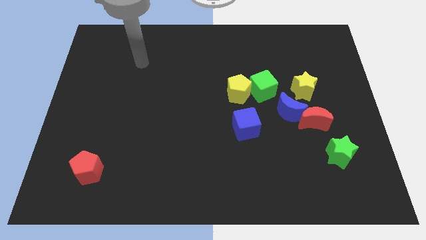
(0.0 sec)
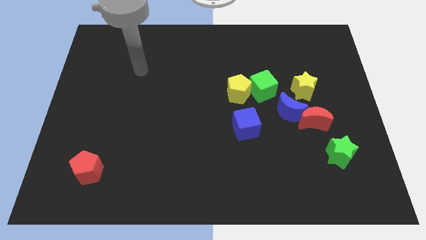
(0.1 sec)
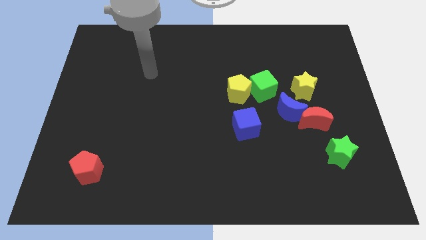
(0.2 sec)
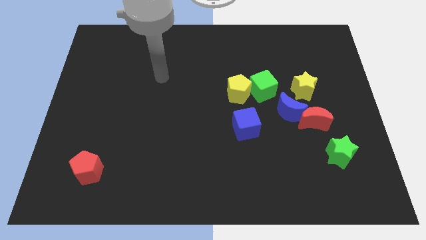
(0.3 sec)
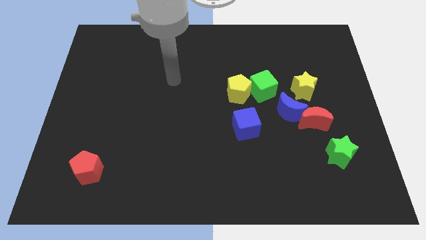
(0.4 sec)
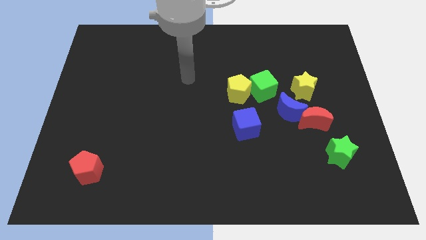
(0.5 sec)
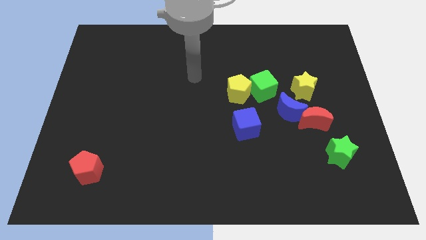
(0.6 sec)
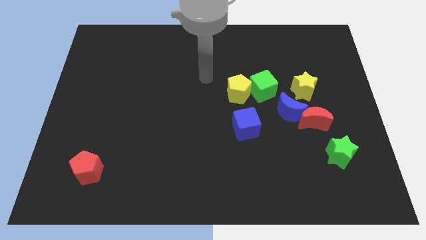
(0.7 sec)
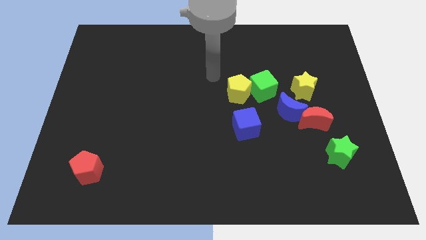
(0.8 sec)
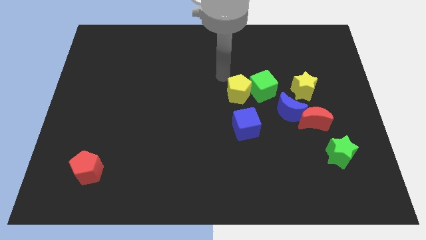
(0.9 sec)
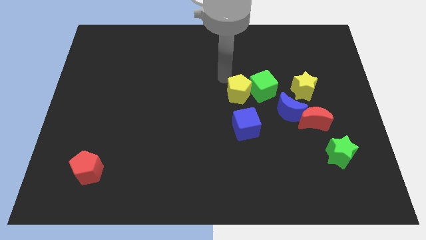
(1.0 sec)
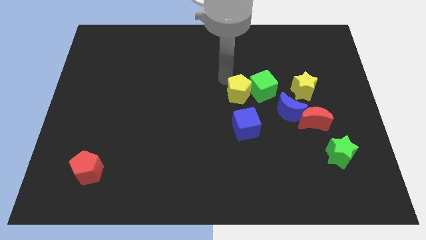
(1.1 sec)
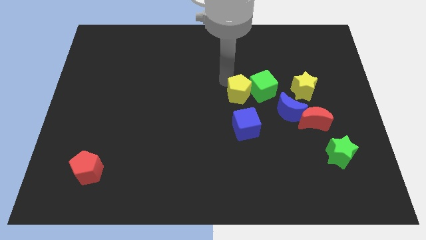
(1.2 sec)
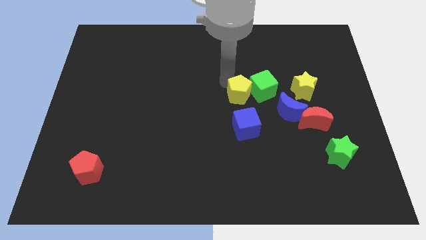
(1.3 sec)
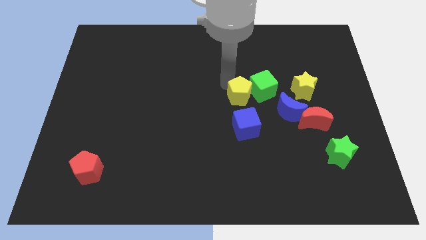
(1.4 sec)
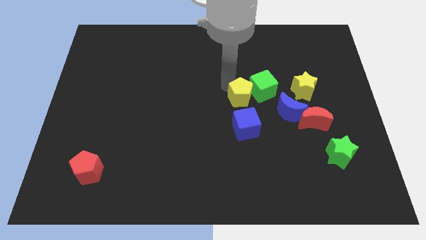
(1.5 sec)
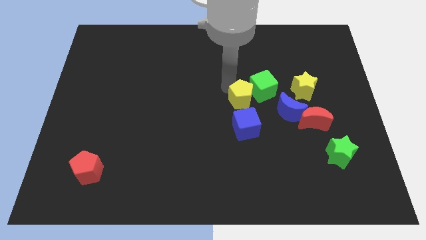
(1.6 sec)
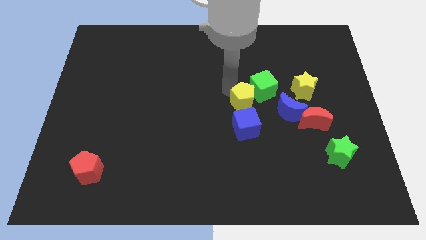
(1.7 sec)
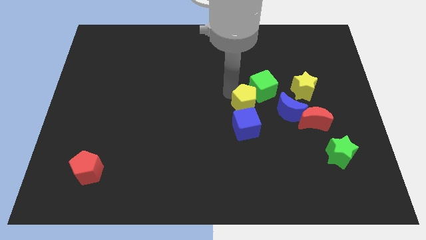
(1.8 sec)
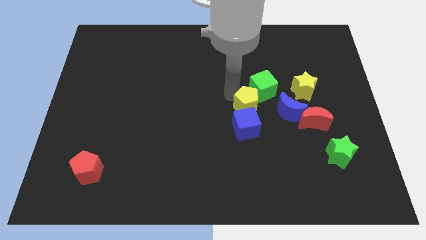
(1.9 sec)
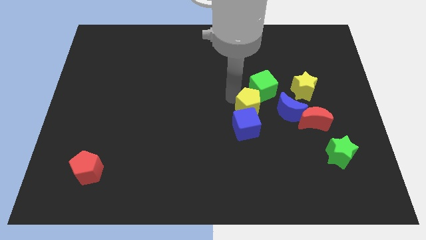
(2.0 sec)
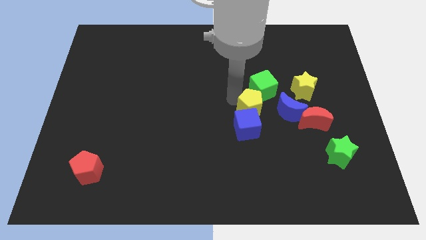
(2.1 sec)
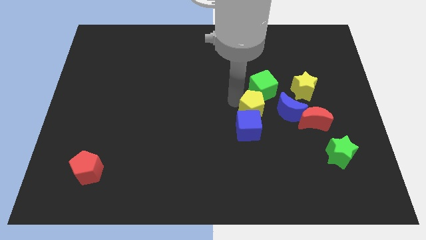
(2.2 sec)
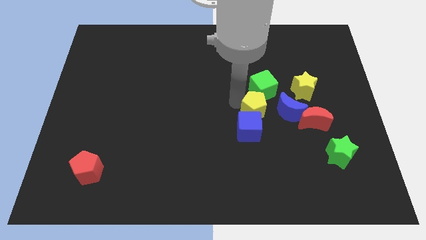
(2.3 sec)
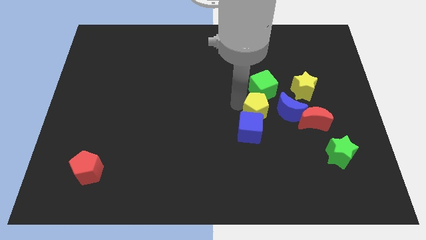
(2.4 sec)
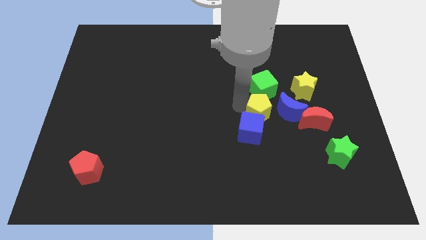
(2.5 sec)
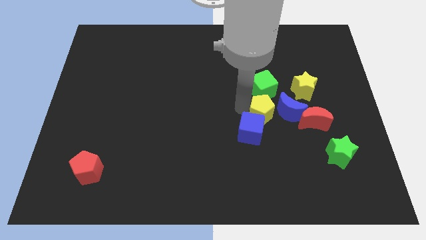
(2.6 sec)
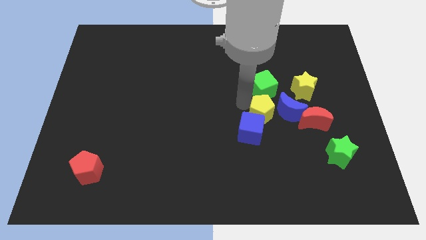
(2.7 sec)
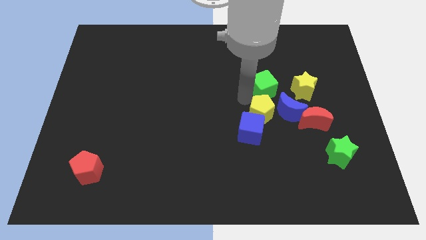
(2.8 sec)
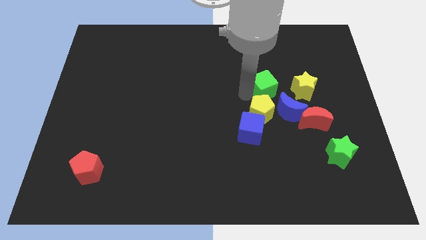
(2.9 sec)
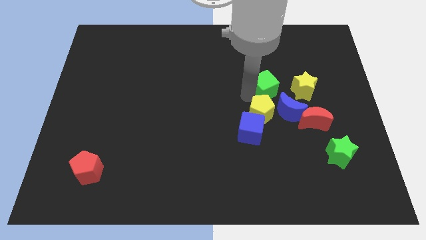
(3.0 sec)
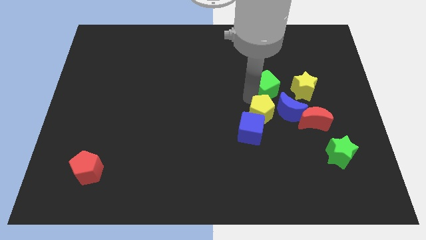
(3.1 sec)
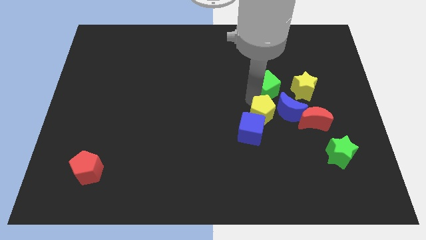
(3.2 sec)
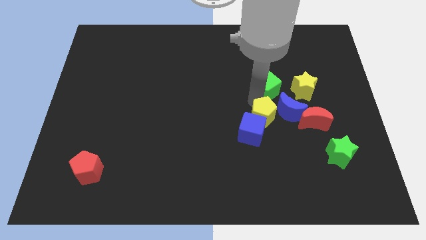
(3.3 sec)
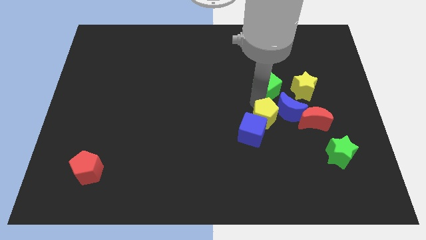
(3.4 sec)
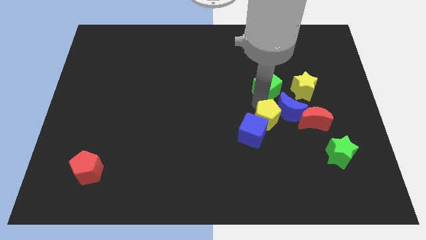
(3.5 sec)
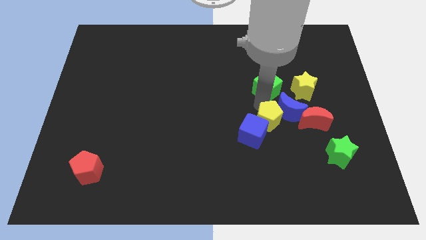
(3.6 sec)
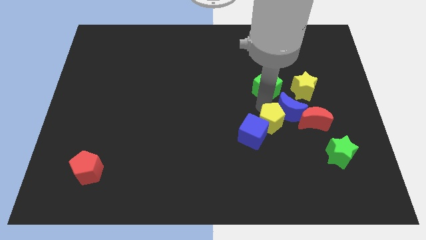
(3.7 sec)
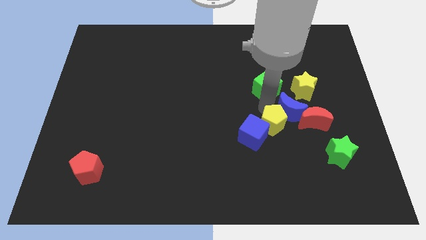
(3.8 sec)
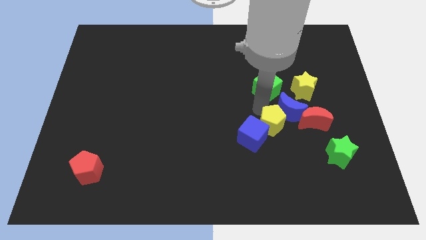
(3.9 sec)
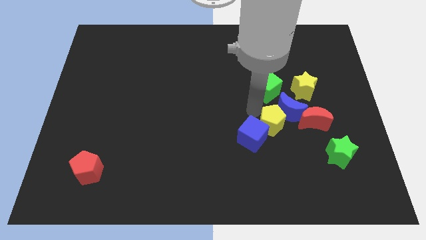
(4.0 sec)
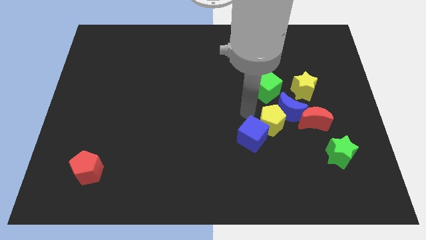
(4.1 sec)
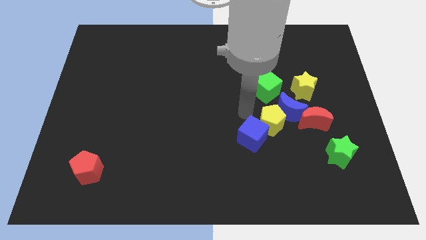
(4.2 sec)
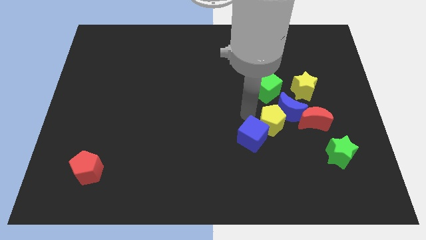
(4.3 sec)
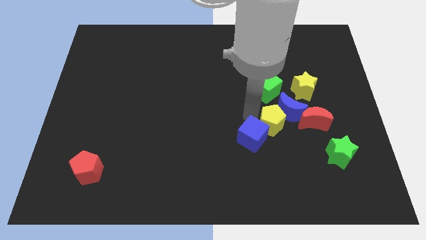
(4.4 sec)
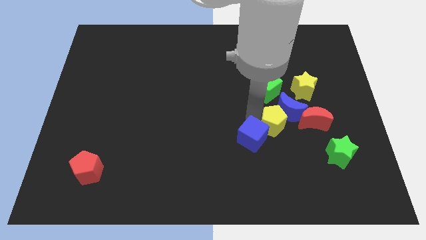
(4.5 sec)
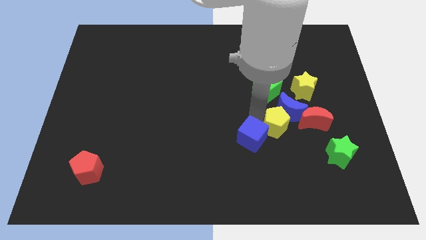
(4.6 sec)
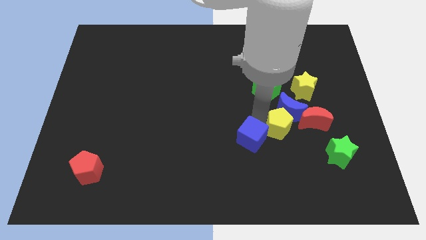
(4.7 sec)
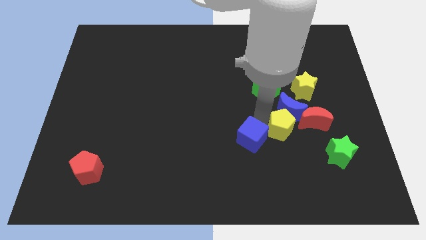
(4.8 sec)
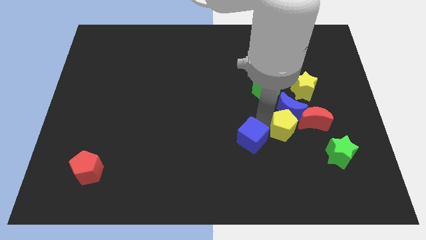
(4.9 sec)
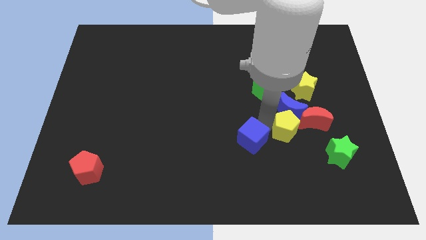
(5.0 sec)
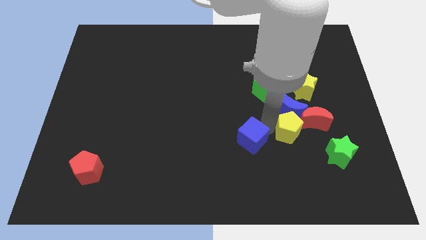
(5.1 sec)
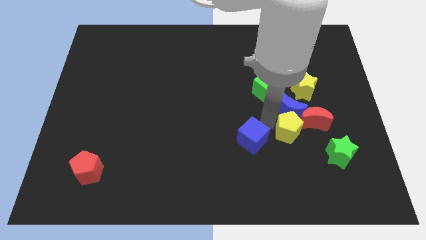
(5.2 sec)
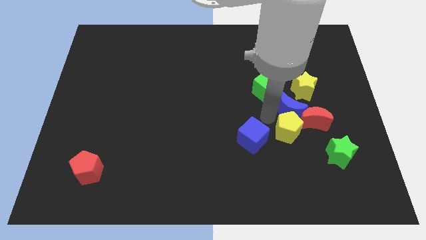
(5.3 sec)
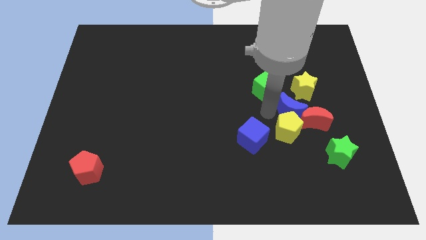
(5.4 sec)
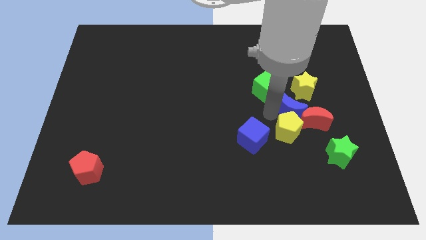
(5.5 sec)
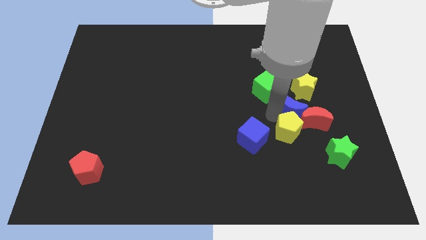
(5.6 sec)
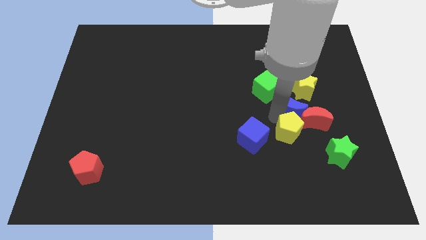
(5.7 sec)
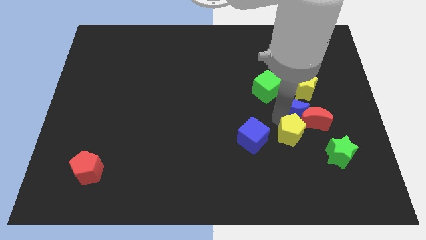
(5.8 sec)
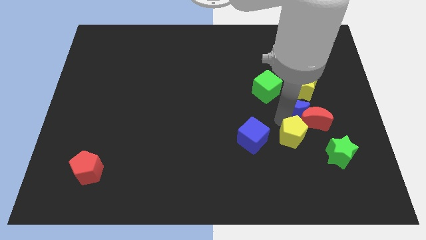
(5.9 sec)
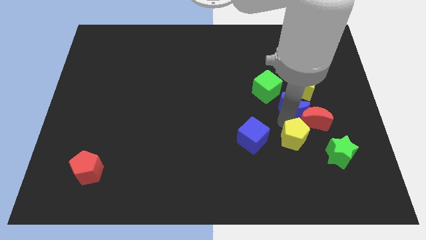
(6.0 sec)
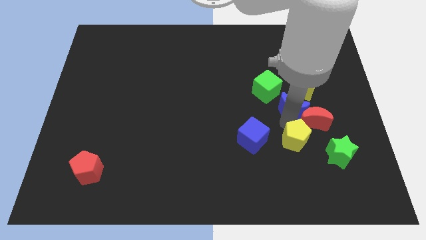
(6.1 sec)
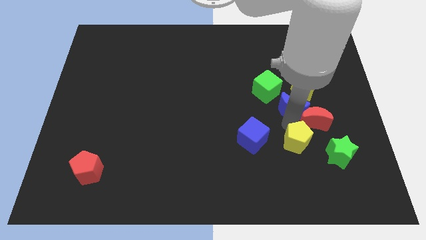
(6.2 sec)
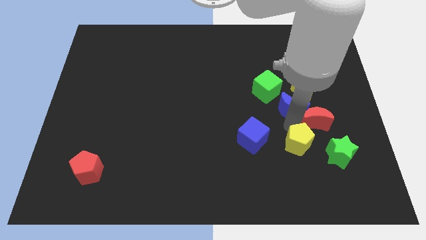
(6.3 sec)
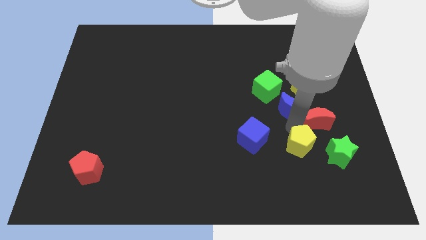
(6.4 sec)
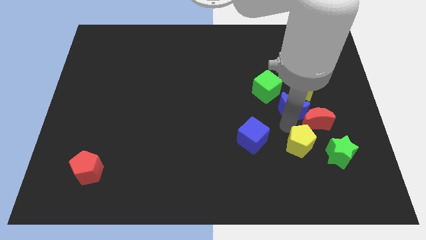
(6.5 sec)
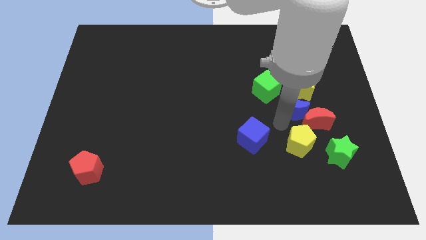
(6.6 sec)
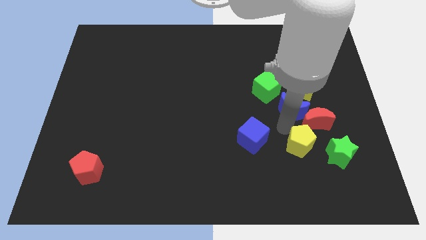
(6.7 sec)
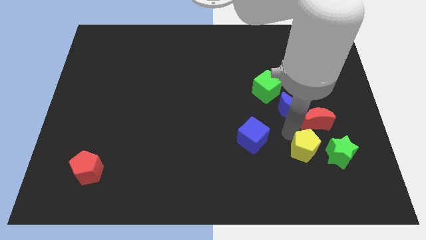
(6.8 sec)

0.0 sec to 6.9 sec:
slide the yellow pentagon down and then right

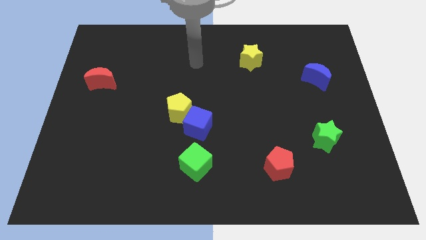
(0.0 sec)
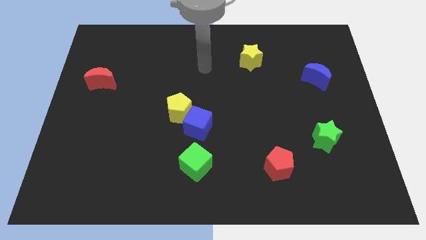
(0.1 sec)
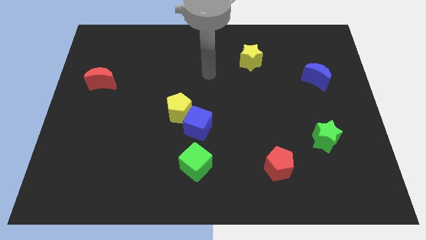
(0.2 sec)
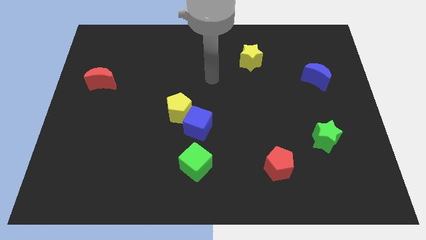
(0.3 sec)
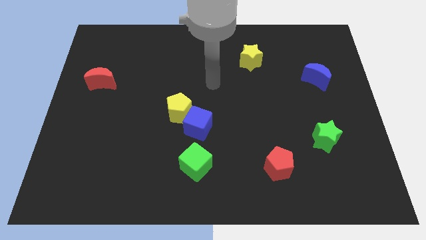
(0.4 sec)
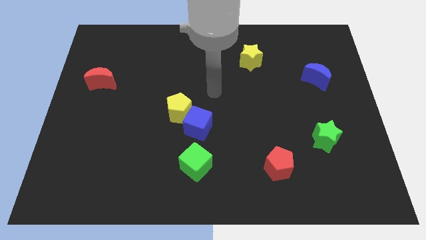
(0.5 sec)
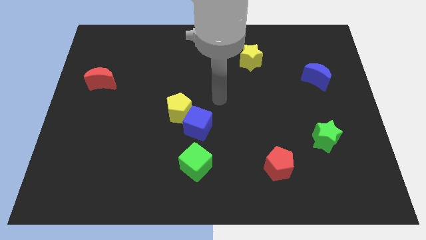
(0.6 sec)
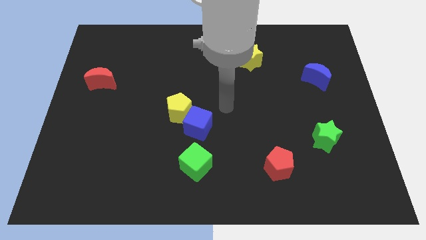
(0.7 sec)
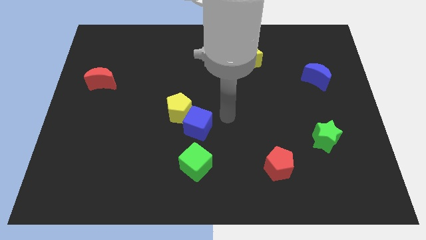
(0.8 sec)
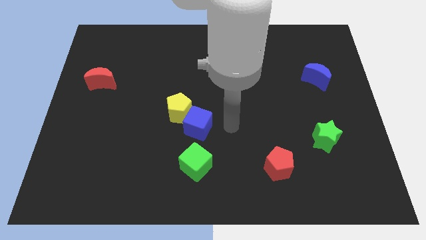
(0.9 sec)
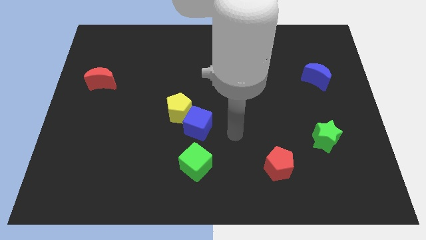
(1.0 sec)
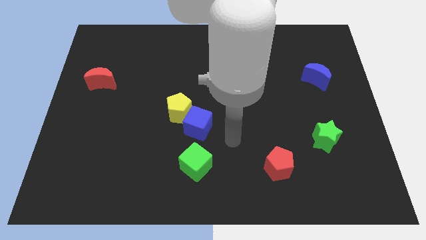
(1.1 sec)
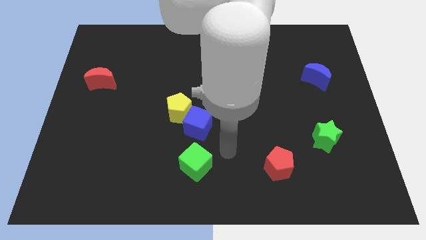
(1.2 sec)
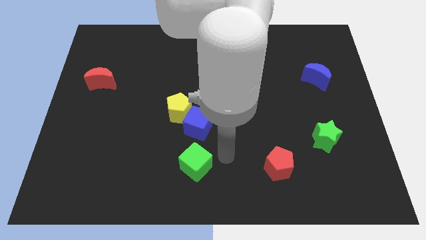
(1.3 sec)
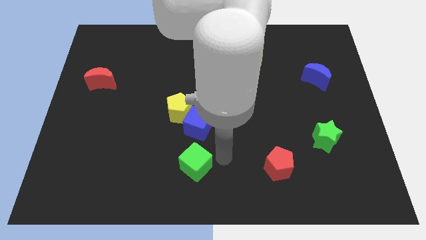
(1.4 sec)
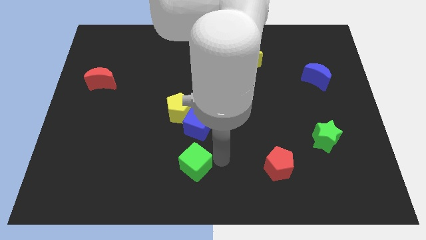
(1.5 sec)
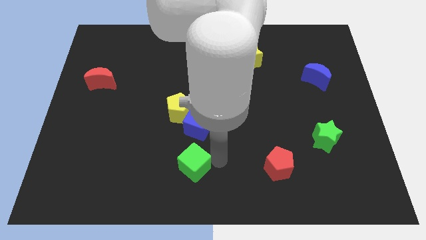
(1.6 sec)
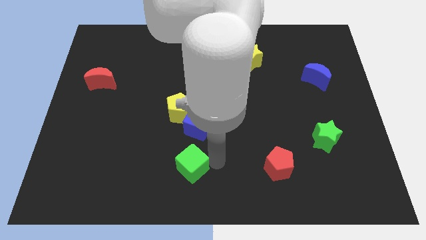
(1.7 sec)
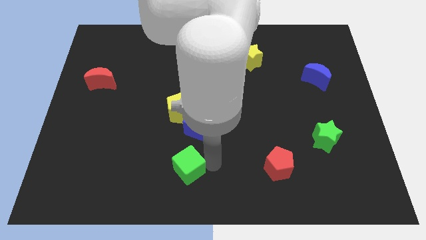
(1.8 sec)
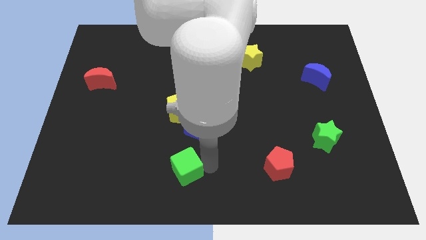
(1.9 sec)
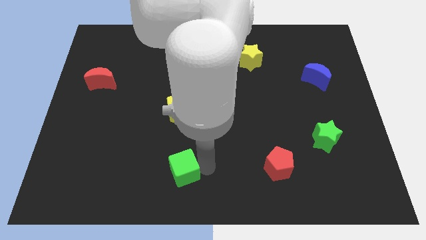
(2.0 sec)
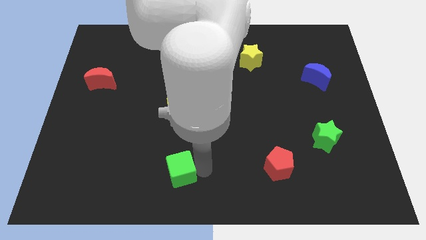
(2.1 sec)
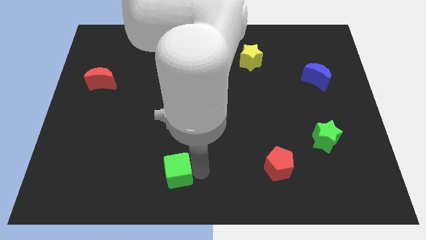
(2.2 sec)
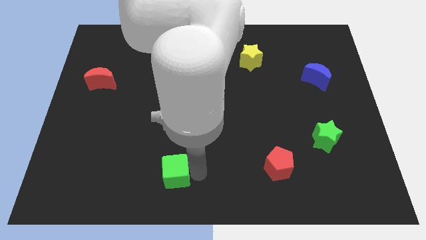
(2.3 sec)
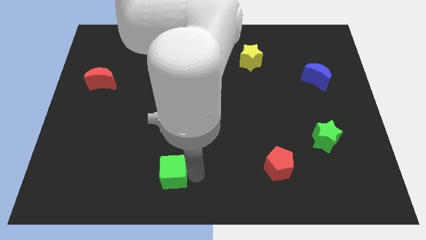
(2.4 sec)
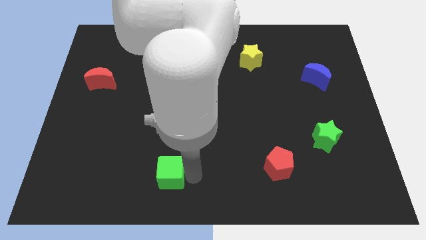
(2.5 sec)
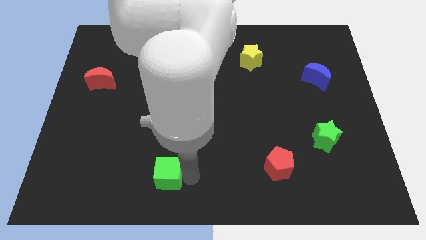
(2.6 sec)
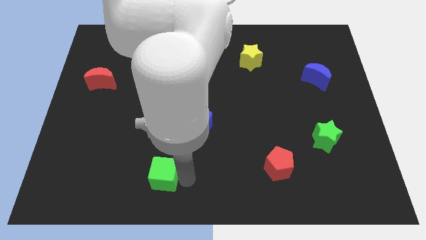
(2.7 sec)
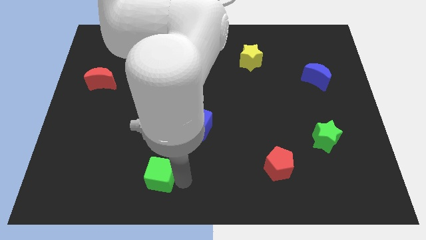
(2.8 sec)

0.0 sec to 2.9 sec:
slightly push the green cube to the left
